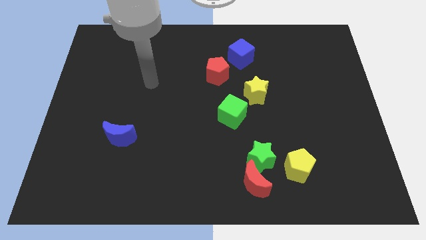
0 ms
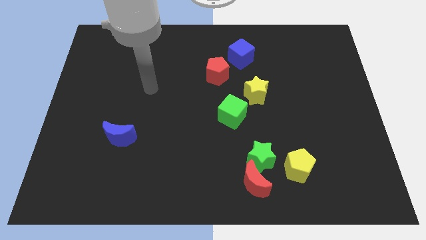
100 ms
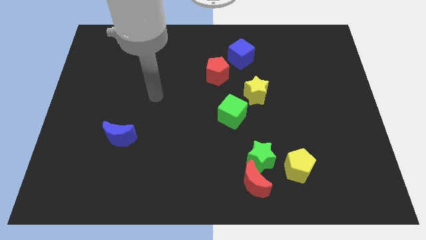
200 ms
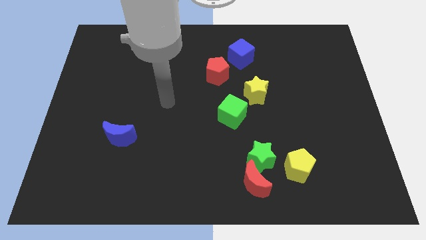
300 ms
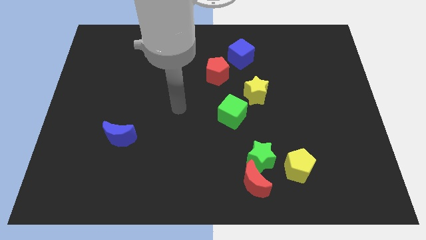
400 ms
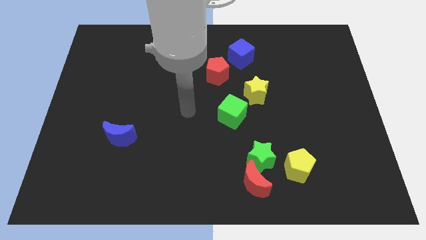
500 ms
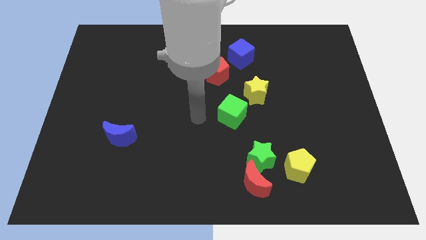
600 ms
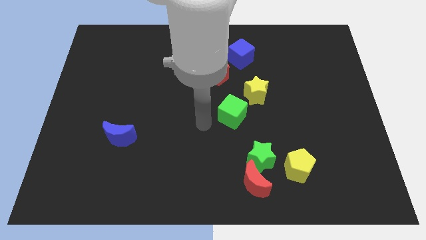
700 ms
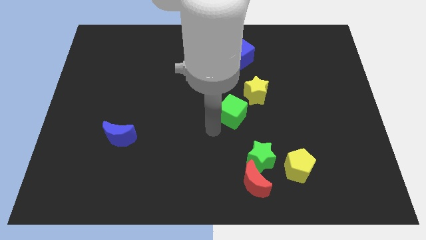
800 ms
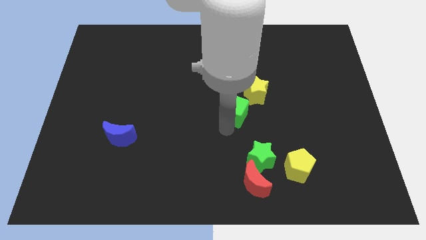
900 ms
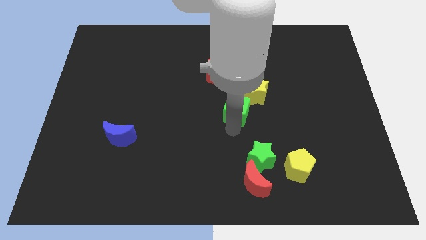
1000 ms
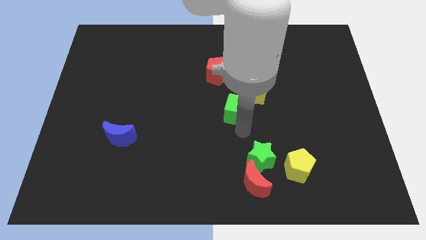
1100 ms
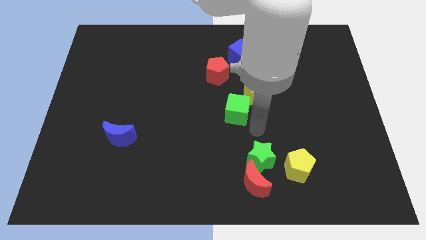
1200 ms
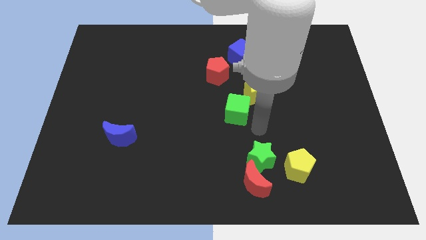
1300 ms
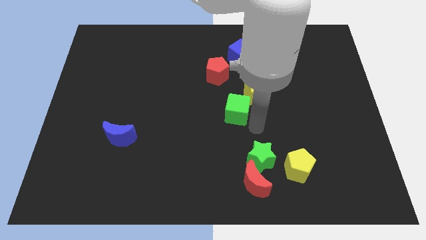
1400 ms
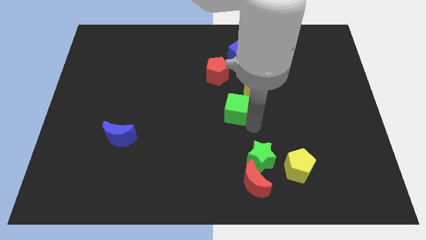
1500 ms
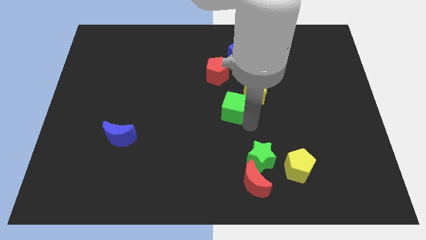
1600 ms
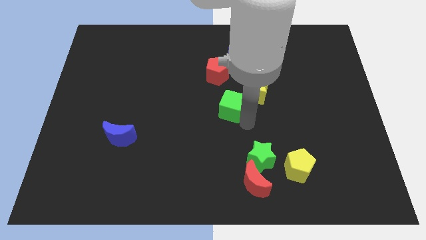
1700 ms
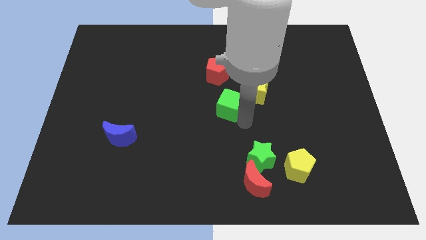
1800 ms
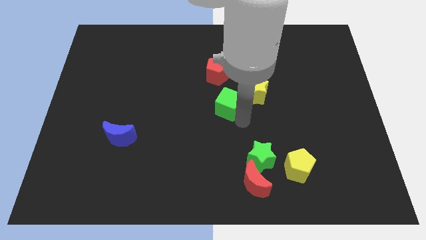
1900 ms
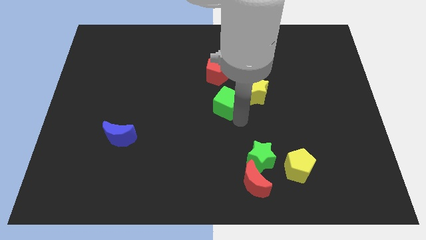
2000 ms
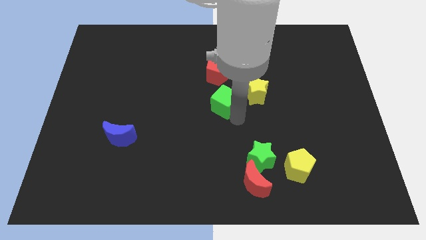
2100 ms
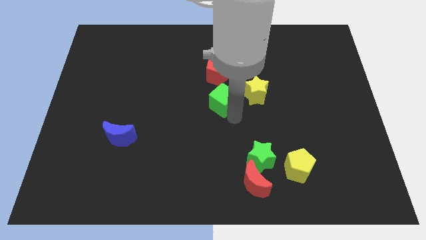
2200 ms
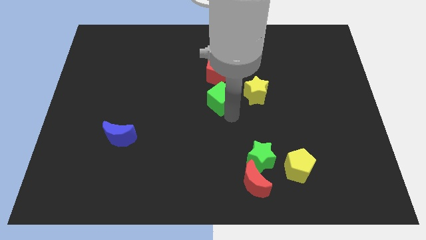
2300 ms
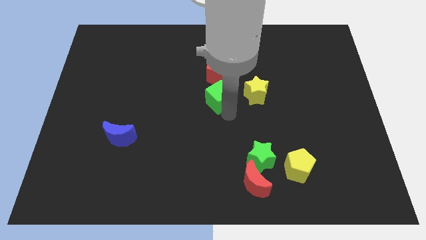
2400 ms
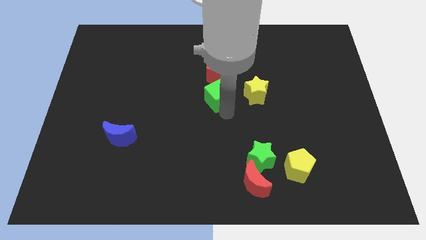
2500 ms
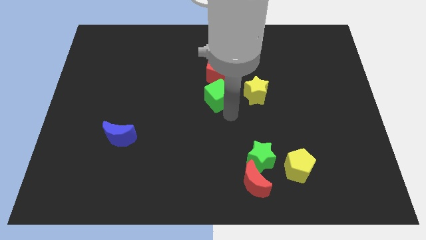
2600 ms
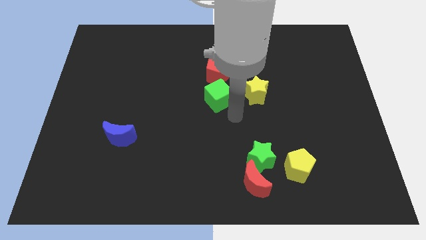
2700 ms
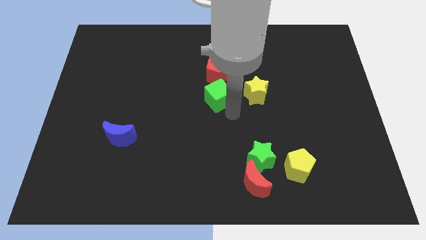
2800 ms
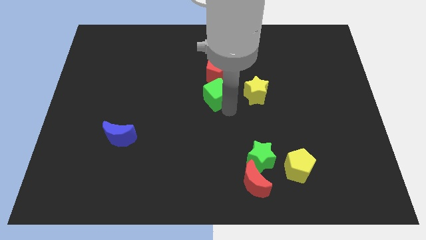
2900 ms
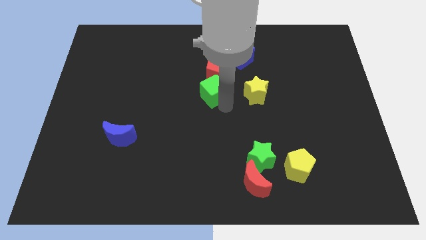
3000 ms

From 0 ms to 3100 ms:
push the green cube upwards and left slightly

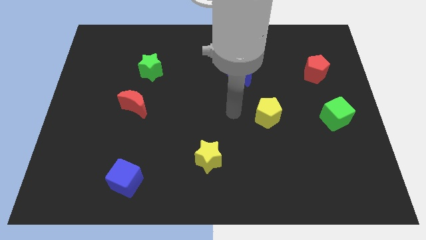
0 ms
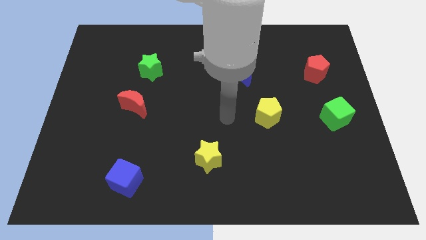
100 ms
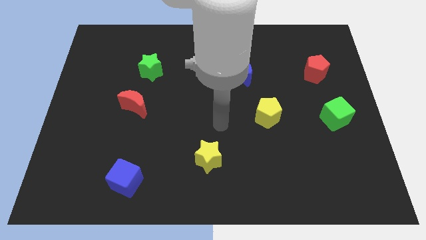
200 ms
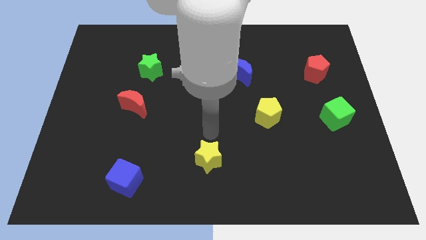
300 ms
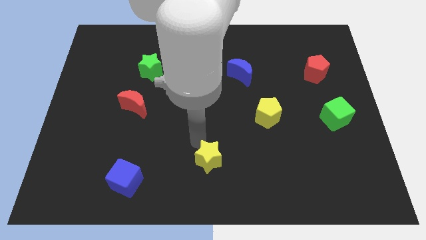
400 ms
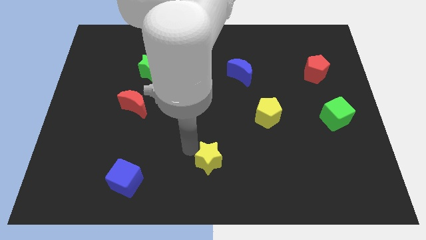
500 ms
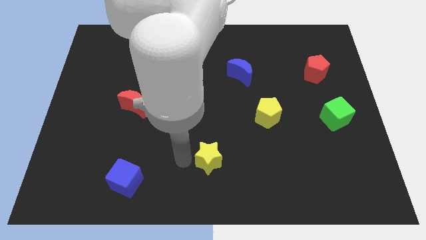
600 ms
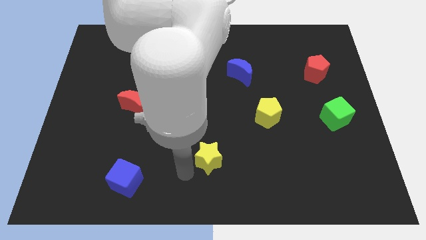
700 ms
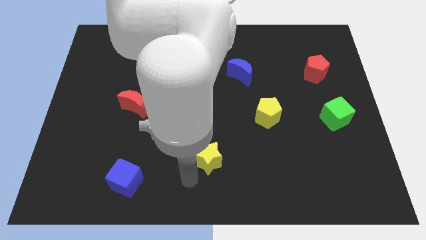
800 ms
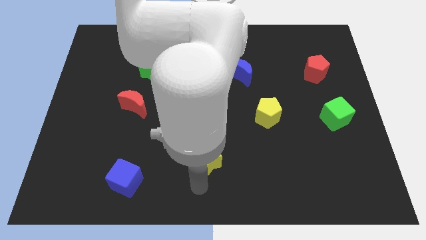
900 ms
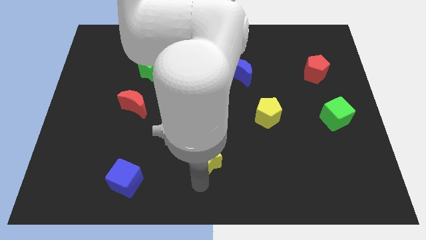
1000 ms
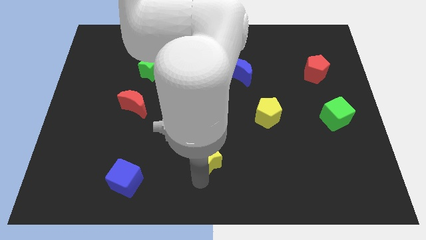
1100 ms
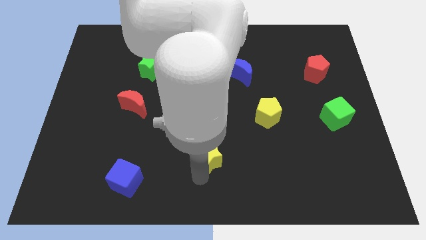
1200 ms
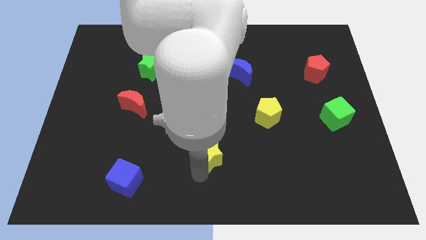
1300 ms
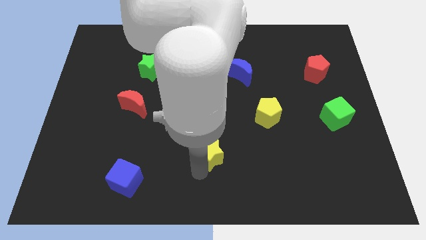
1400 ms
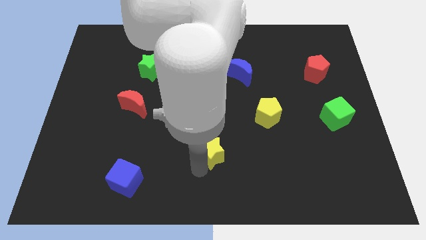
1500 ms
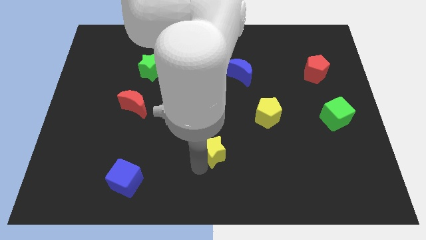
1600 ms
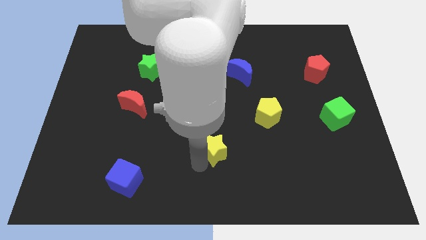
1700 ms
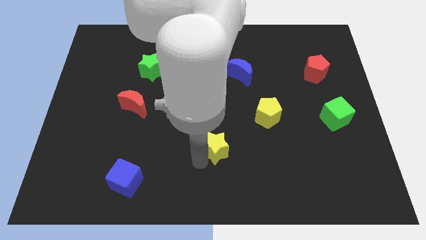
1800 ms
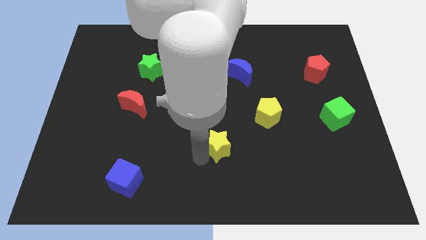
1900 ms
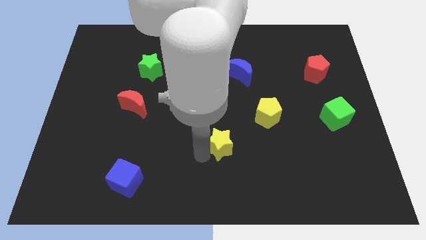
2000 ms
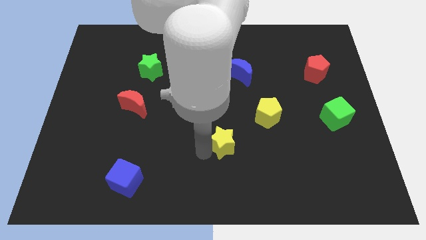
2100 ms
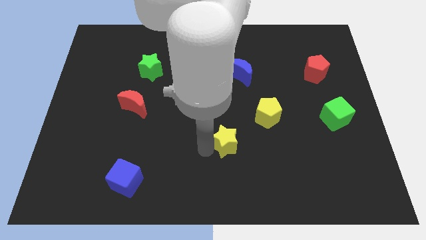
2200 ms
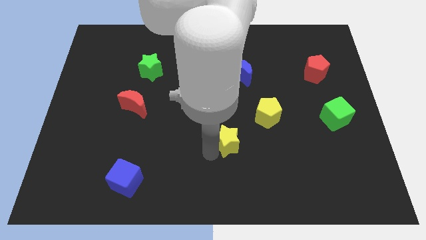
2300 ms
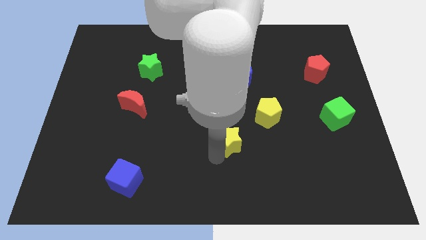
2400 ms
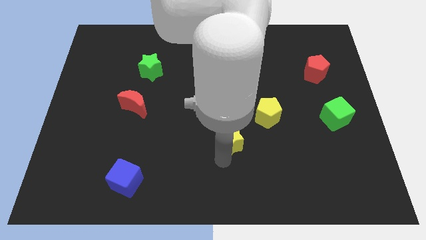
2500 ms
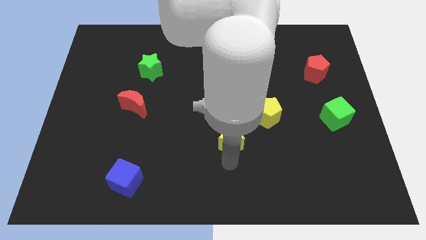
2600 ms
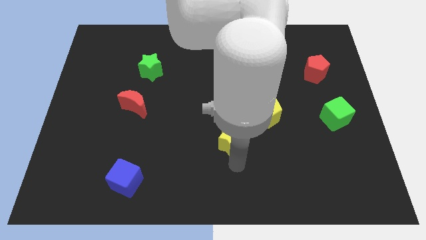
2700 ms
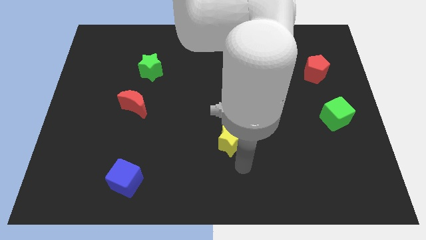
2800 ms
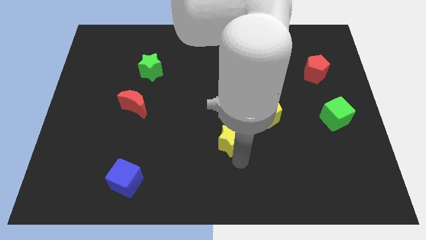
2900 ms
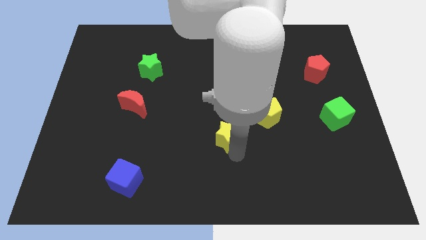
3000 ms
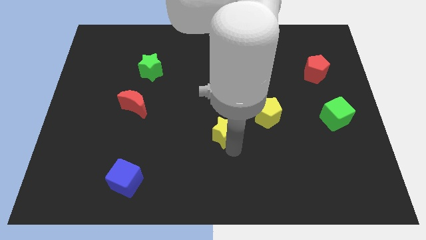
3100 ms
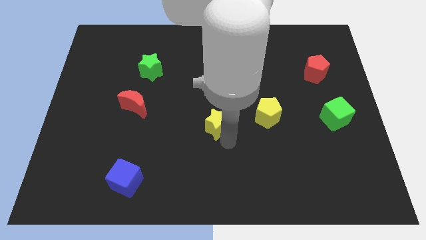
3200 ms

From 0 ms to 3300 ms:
slide the yellow star upwards a little bit

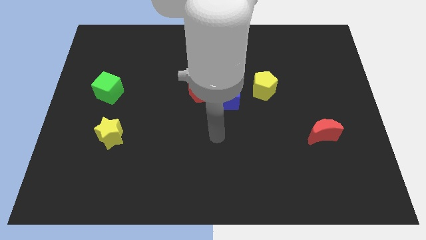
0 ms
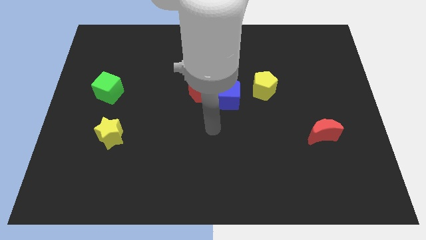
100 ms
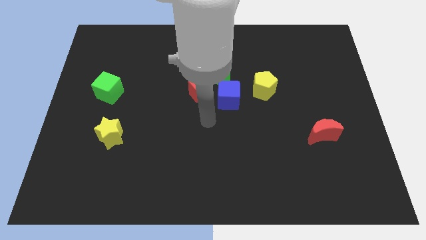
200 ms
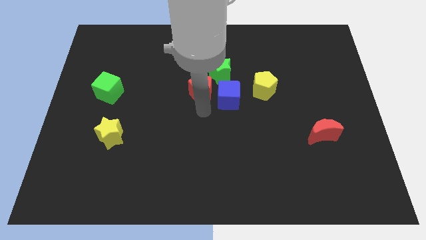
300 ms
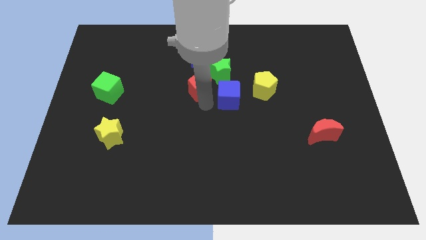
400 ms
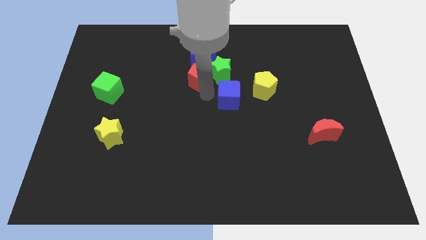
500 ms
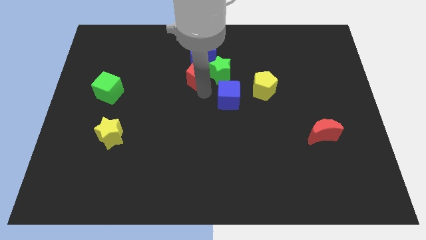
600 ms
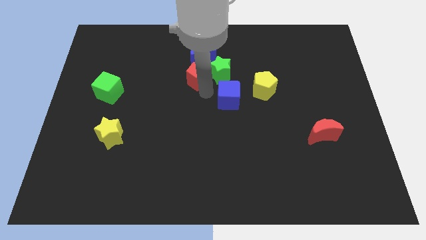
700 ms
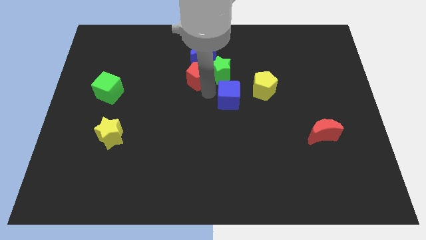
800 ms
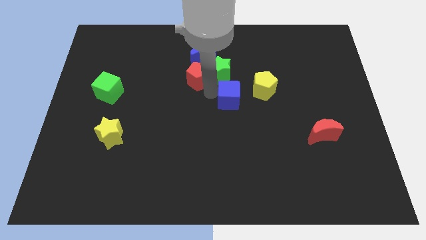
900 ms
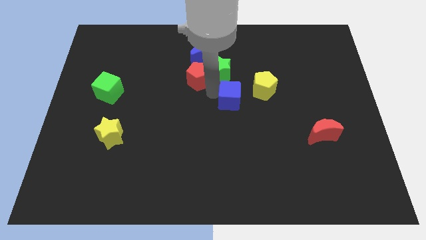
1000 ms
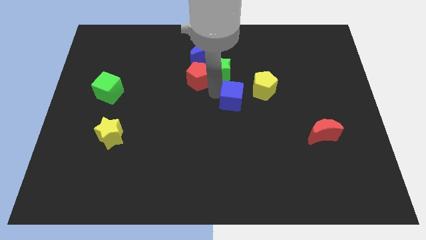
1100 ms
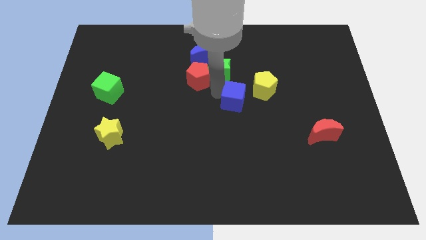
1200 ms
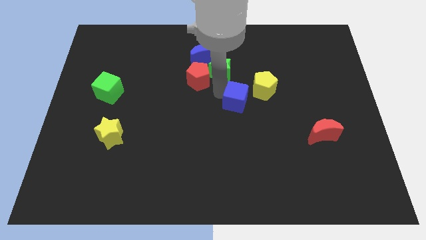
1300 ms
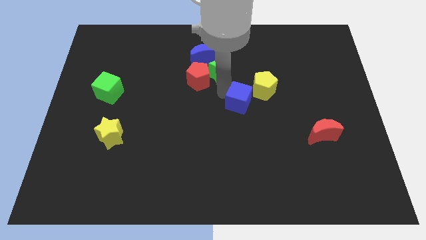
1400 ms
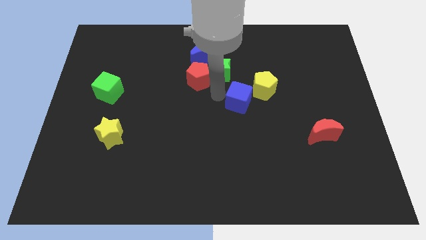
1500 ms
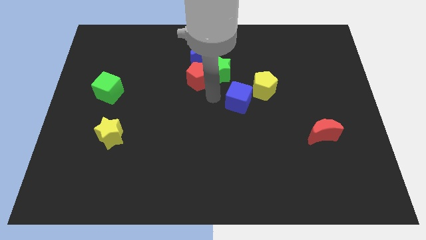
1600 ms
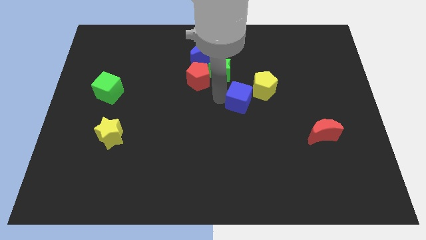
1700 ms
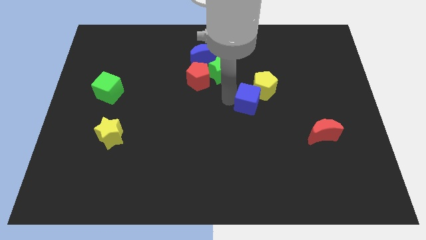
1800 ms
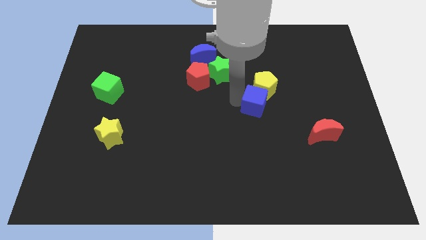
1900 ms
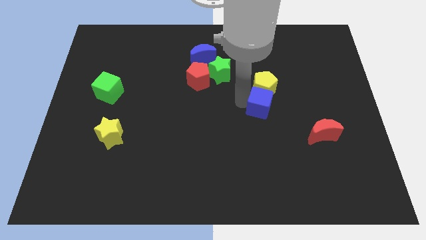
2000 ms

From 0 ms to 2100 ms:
push the blue cube slightly right
